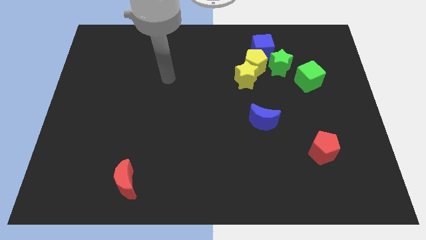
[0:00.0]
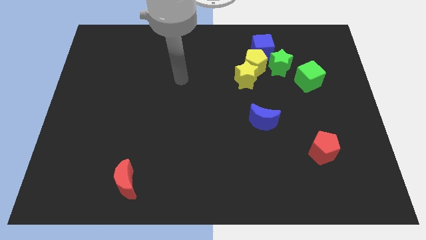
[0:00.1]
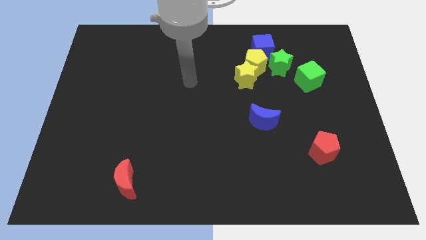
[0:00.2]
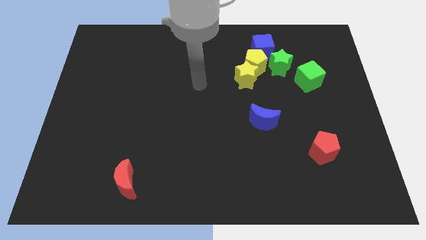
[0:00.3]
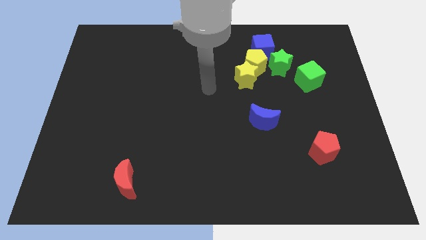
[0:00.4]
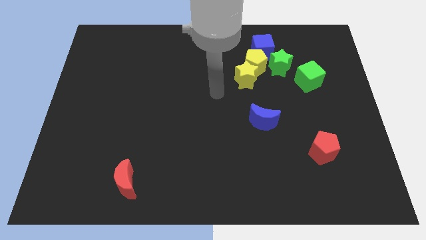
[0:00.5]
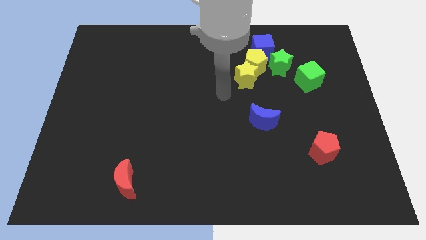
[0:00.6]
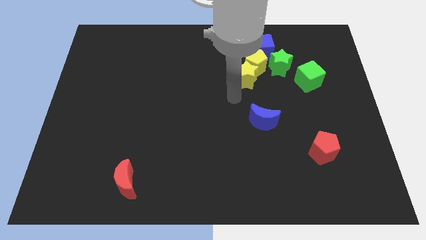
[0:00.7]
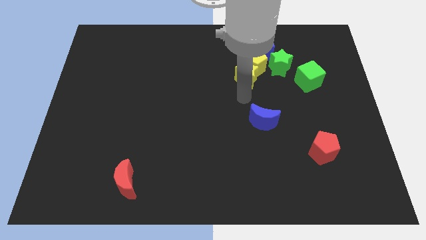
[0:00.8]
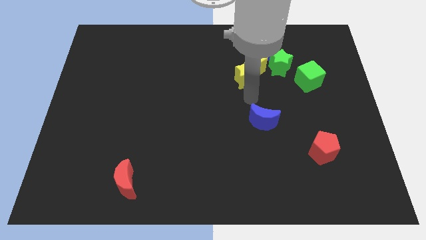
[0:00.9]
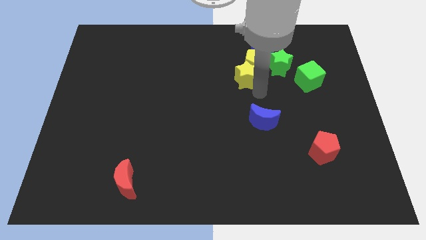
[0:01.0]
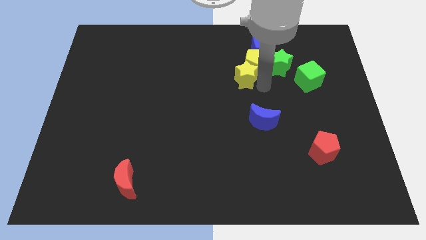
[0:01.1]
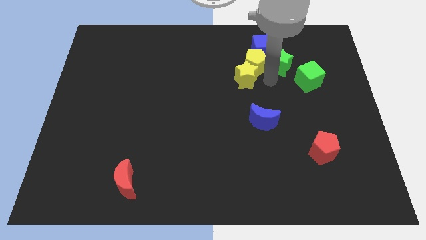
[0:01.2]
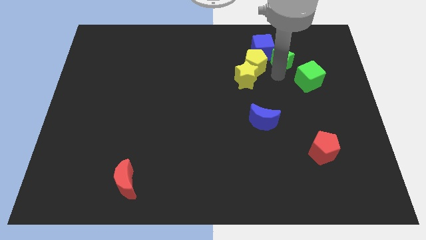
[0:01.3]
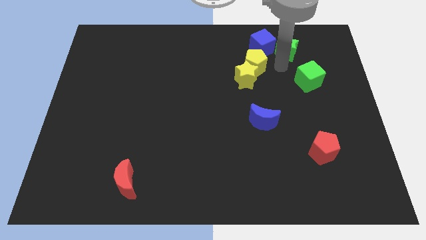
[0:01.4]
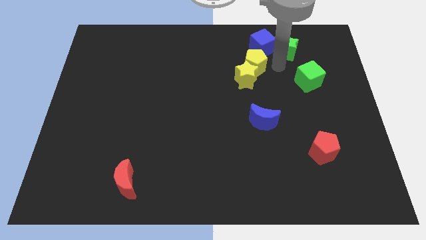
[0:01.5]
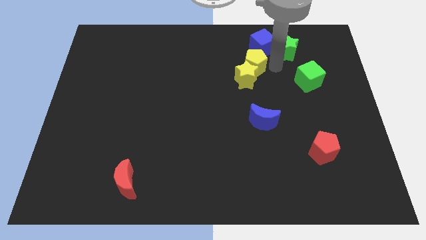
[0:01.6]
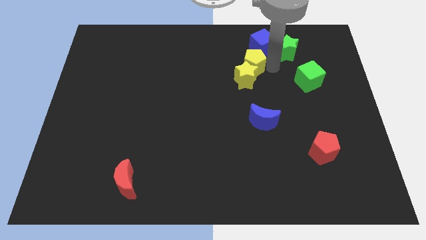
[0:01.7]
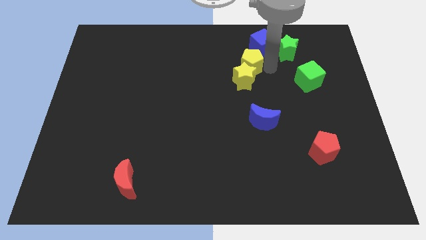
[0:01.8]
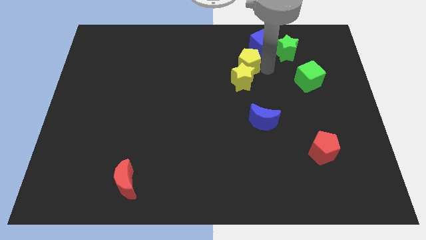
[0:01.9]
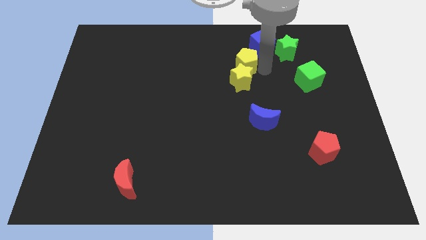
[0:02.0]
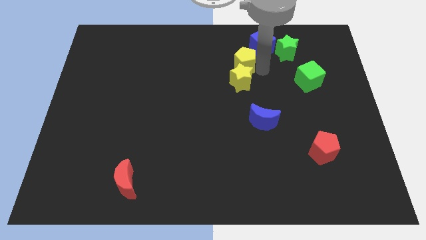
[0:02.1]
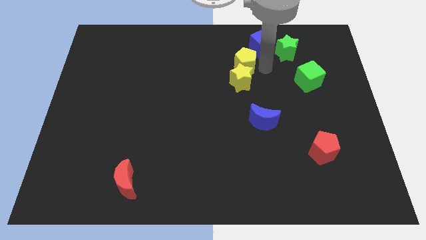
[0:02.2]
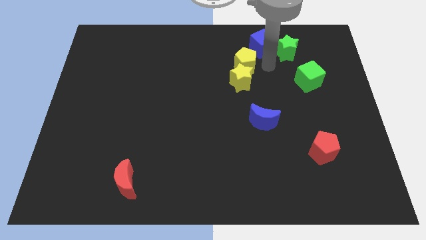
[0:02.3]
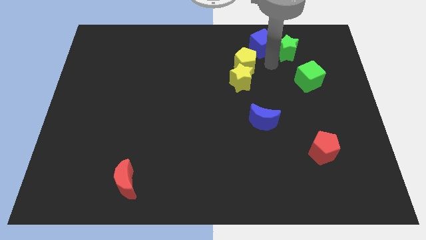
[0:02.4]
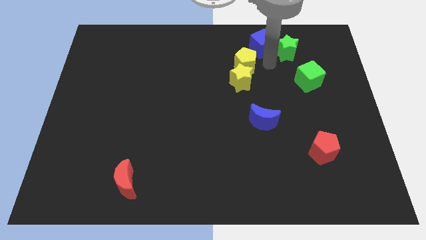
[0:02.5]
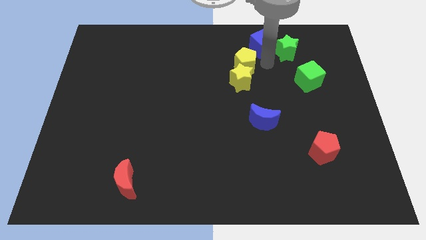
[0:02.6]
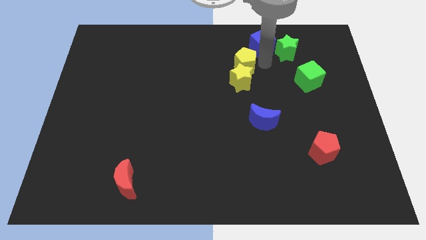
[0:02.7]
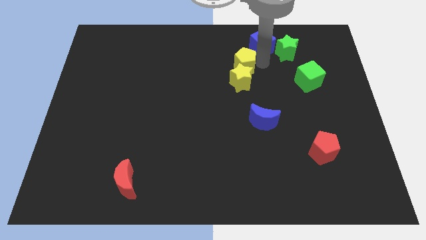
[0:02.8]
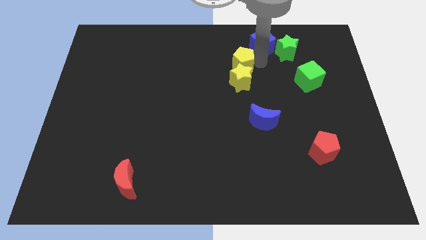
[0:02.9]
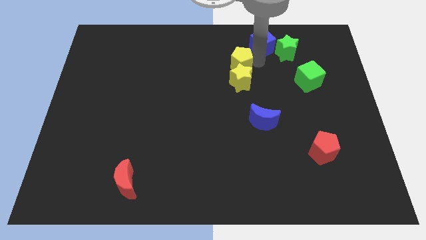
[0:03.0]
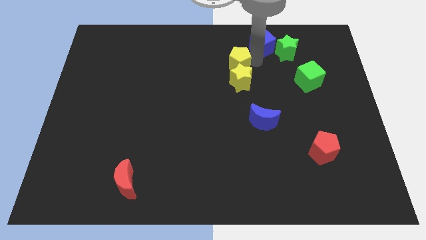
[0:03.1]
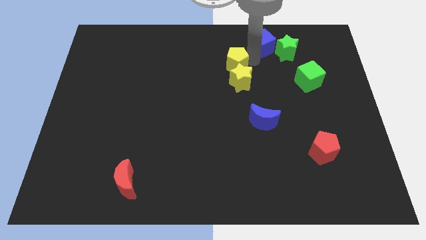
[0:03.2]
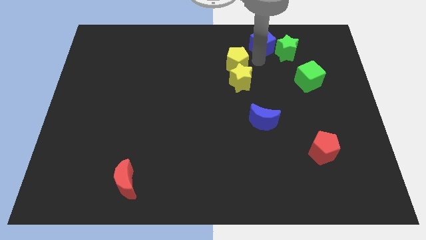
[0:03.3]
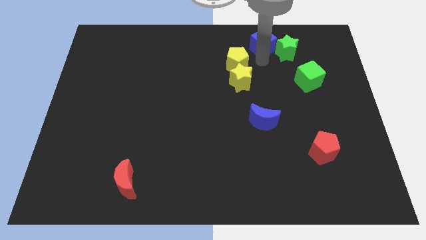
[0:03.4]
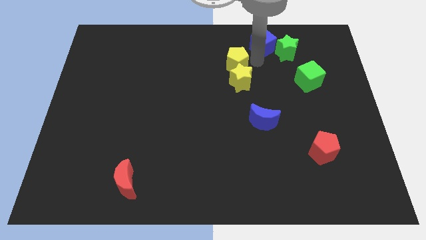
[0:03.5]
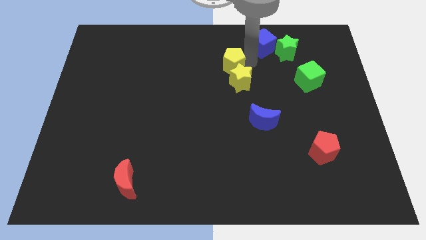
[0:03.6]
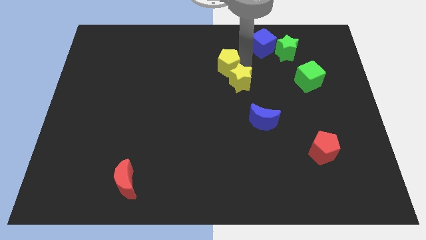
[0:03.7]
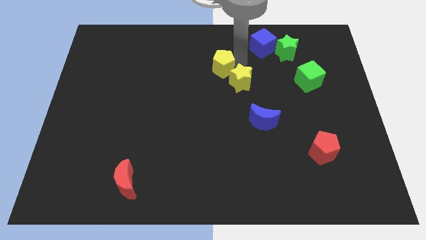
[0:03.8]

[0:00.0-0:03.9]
pull the yellow pentagon apart from the yellow star, blue cube, and green star

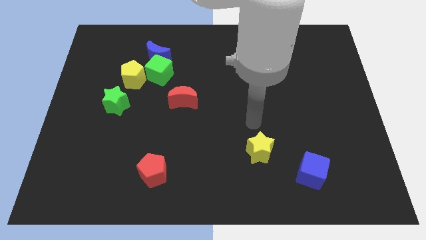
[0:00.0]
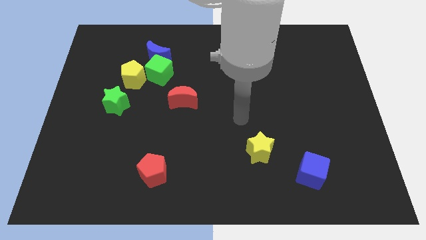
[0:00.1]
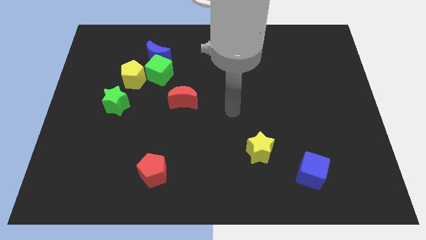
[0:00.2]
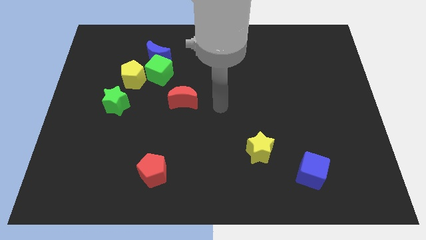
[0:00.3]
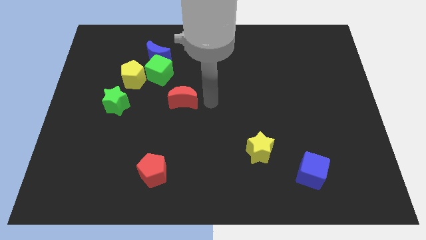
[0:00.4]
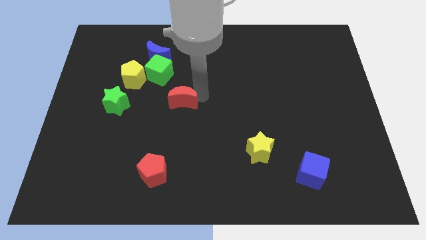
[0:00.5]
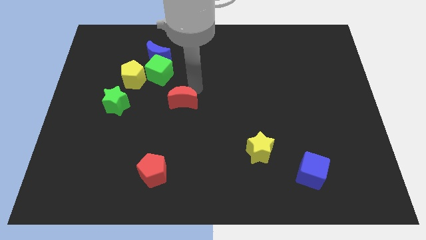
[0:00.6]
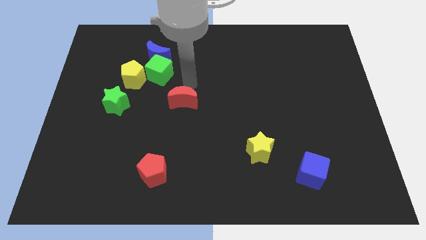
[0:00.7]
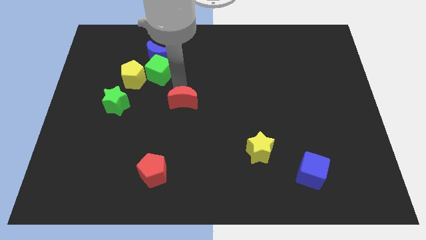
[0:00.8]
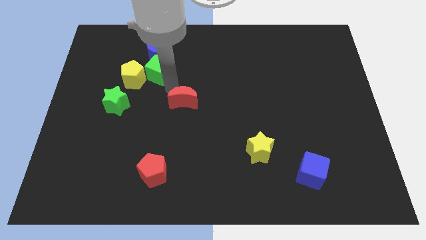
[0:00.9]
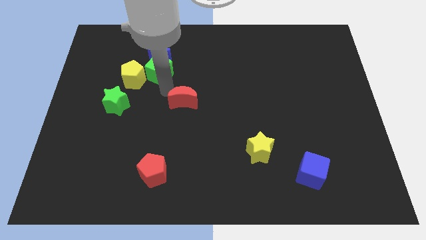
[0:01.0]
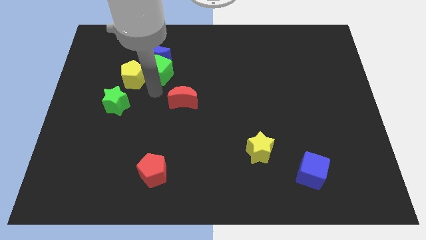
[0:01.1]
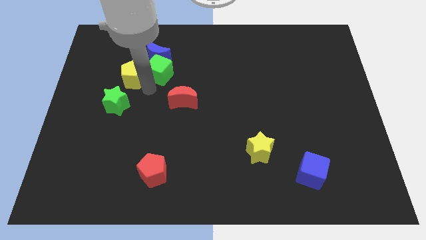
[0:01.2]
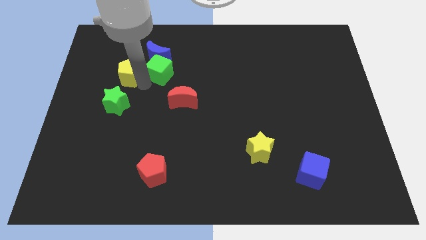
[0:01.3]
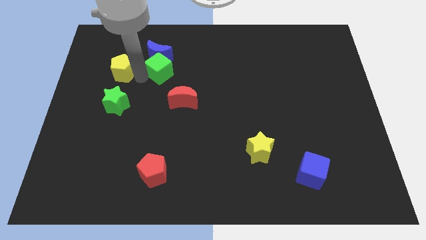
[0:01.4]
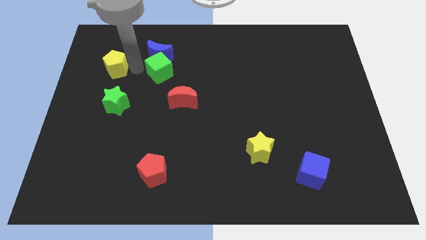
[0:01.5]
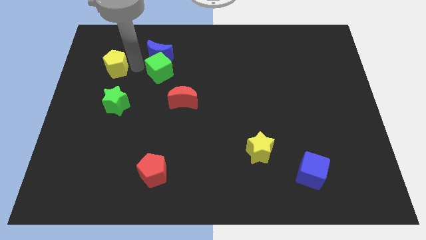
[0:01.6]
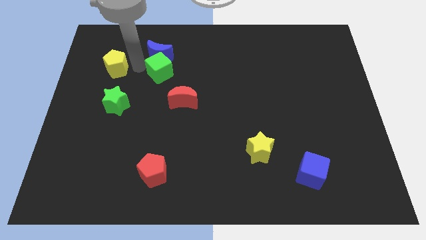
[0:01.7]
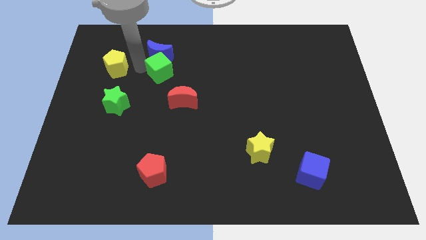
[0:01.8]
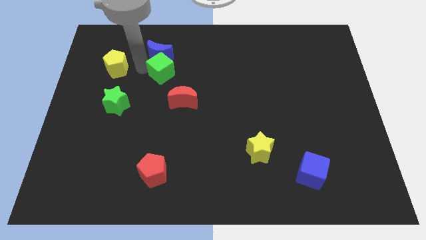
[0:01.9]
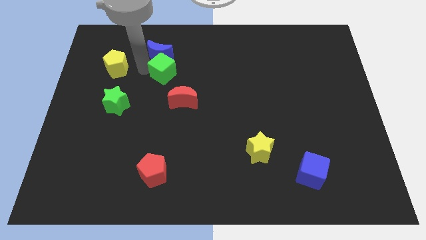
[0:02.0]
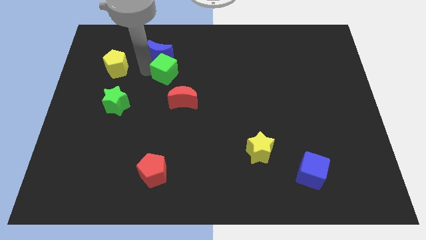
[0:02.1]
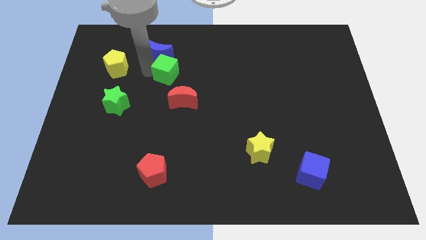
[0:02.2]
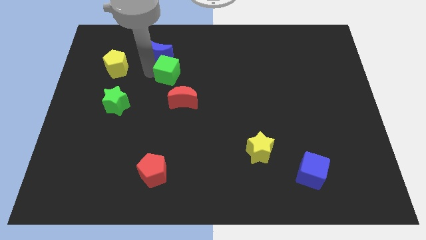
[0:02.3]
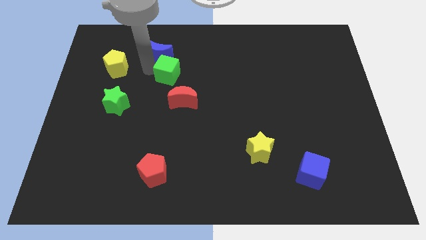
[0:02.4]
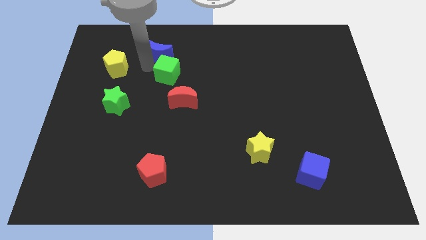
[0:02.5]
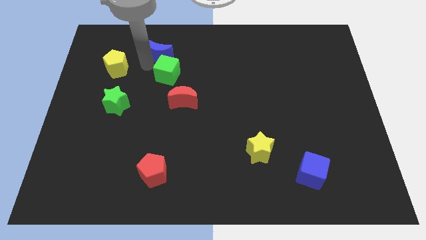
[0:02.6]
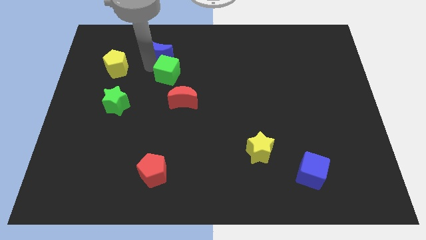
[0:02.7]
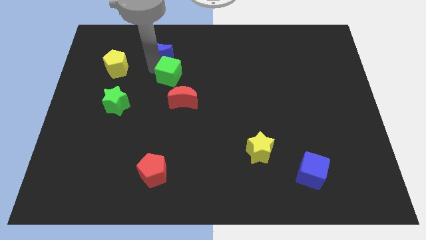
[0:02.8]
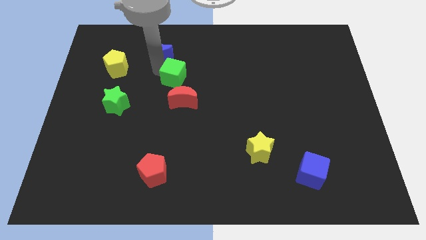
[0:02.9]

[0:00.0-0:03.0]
separate the green cube from the blue moon and yellow pentagon

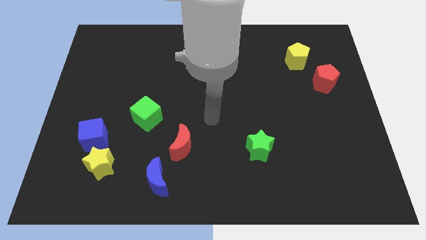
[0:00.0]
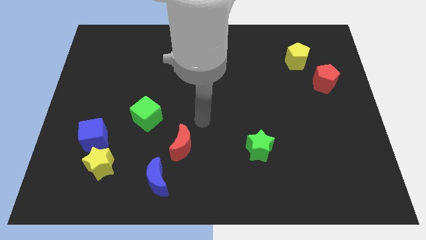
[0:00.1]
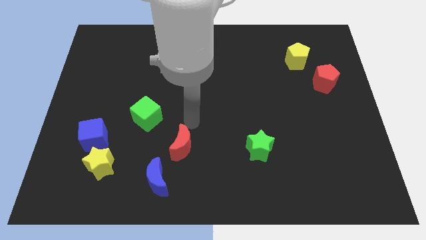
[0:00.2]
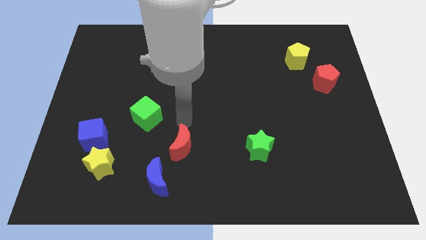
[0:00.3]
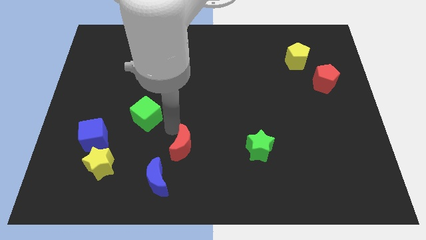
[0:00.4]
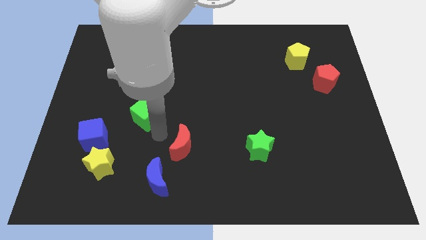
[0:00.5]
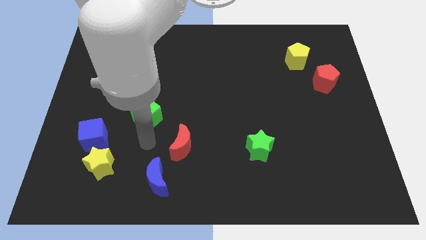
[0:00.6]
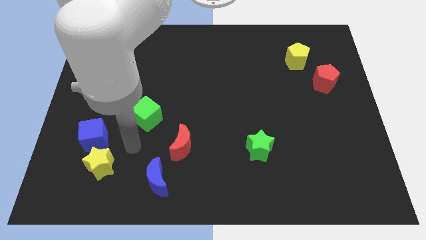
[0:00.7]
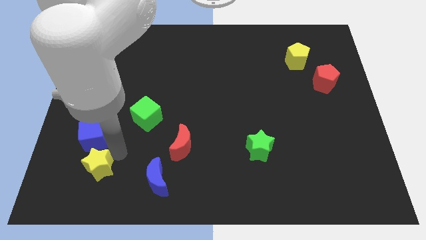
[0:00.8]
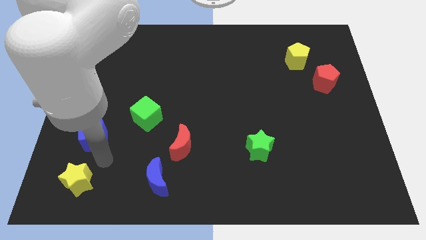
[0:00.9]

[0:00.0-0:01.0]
separate the blue cube from the yellow star

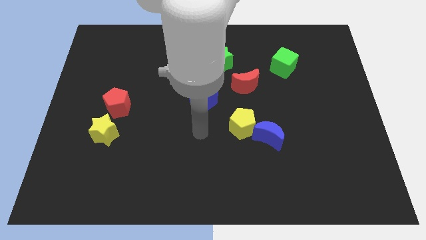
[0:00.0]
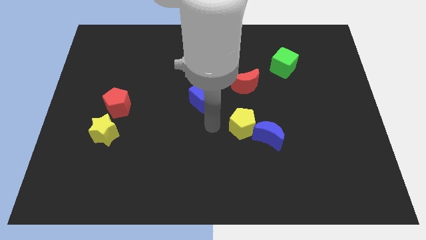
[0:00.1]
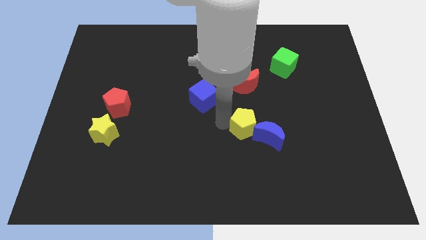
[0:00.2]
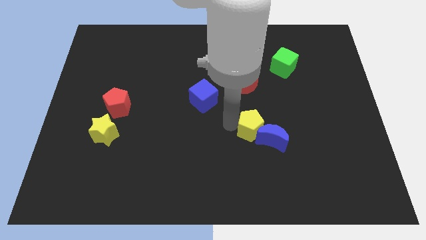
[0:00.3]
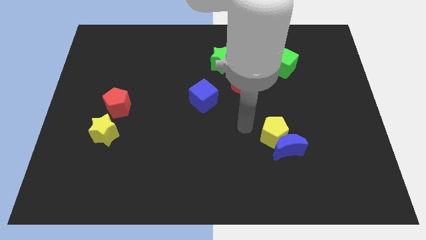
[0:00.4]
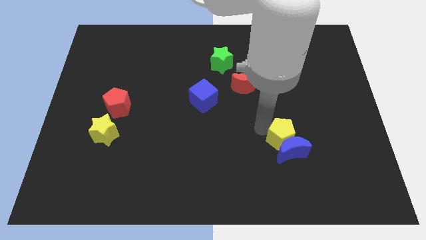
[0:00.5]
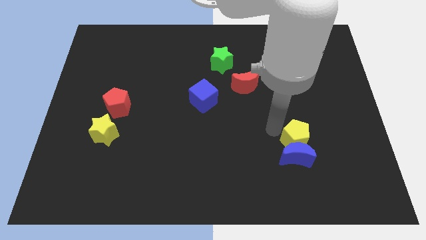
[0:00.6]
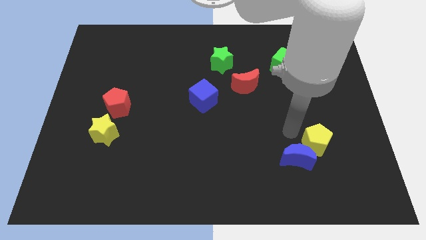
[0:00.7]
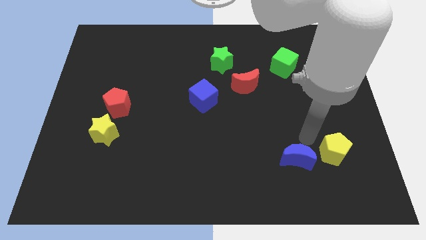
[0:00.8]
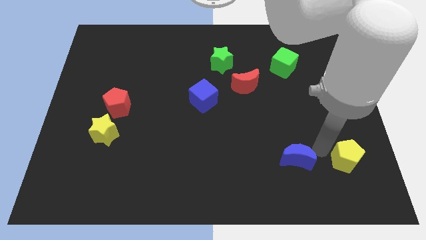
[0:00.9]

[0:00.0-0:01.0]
pull the blue moon apart from the yellow pentagon

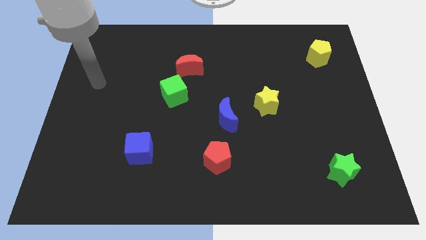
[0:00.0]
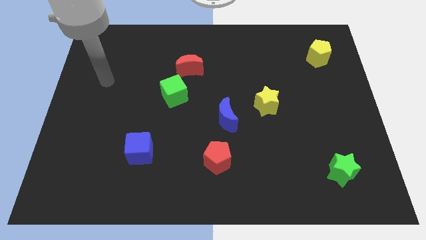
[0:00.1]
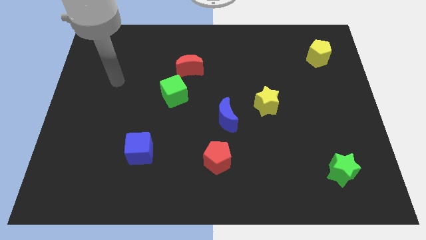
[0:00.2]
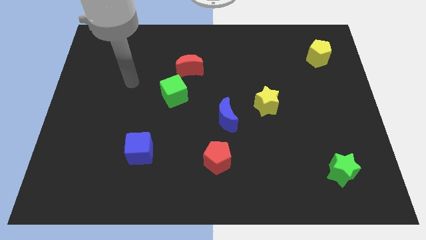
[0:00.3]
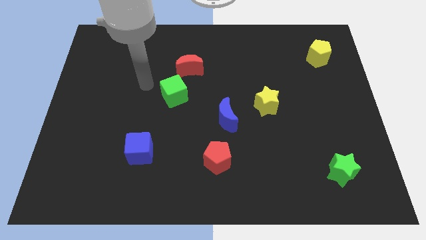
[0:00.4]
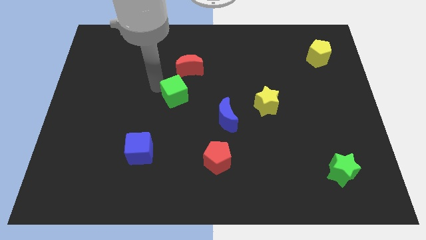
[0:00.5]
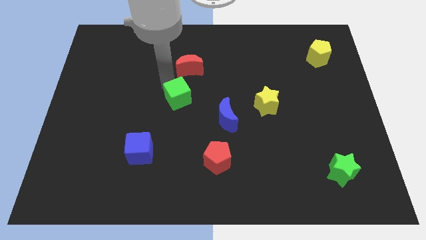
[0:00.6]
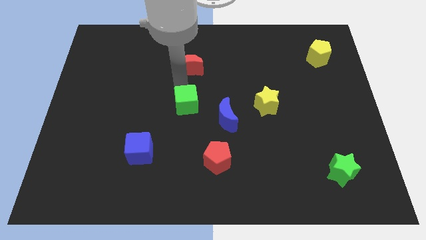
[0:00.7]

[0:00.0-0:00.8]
move the red moon away from the green cube
